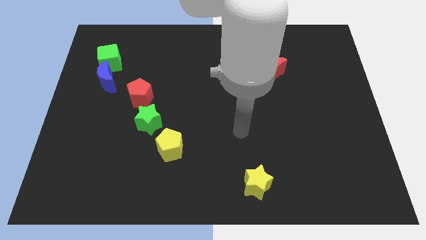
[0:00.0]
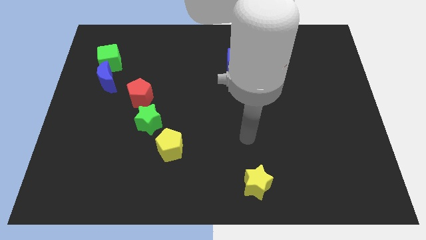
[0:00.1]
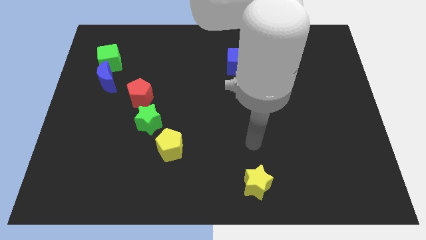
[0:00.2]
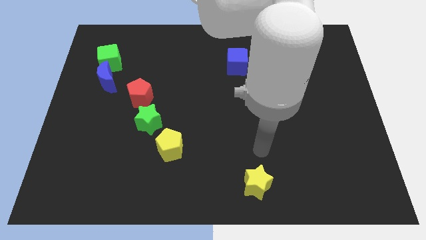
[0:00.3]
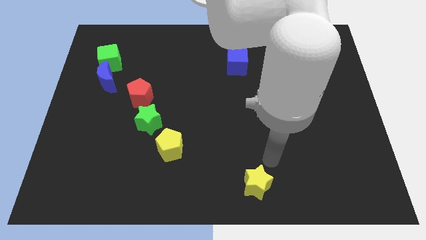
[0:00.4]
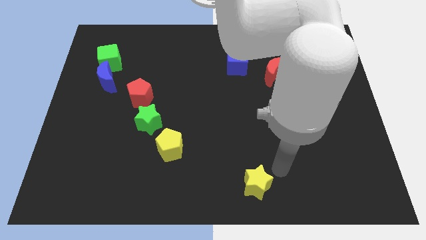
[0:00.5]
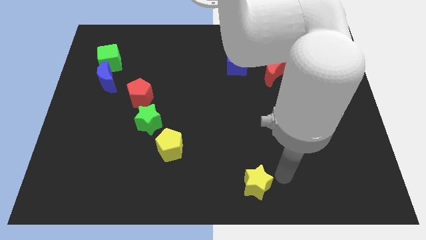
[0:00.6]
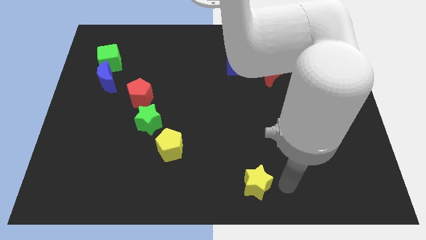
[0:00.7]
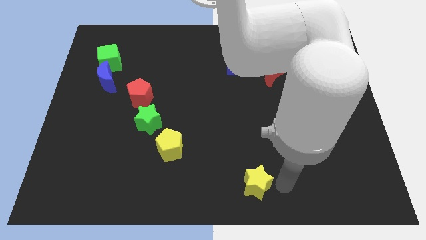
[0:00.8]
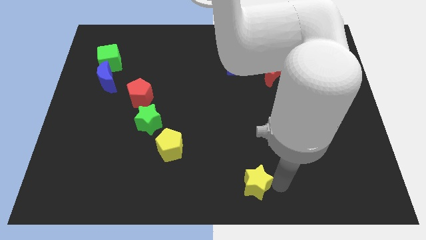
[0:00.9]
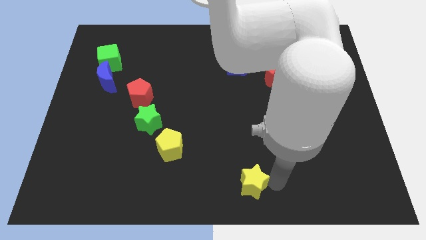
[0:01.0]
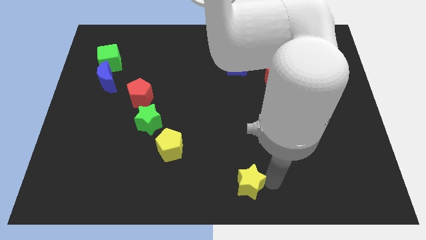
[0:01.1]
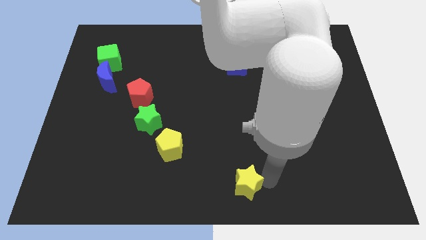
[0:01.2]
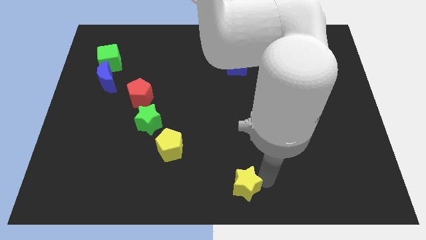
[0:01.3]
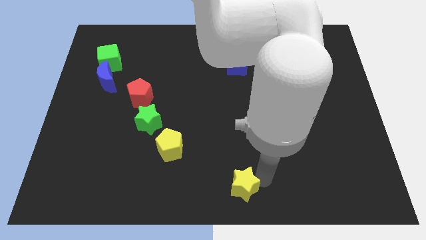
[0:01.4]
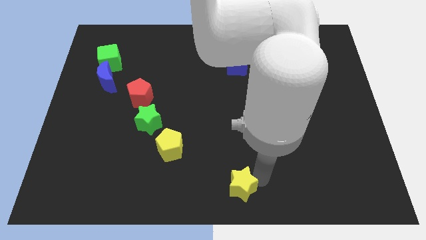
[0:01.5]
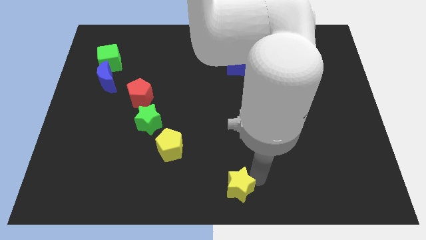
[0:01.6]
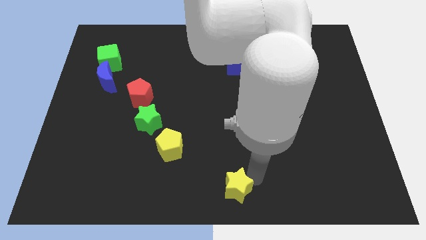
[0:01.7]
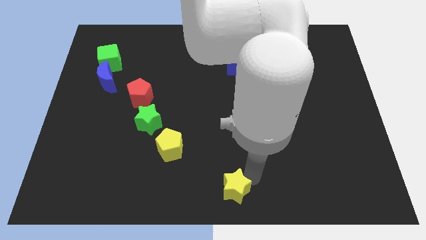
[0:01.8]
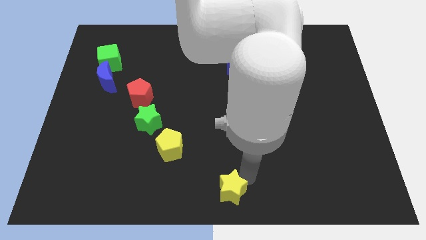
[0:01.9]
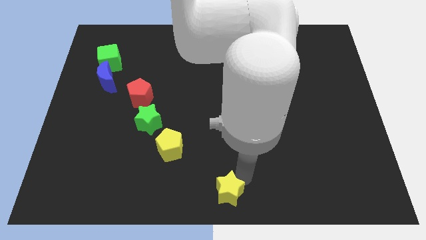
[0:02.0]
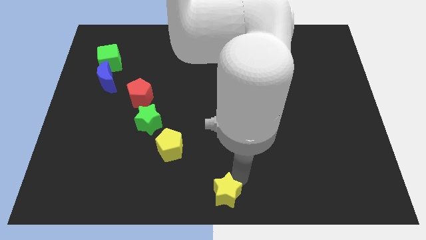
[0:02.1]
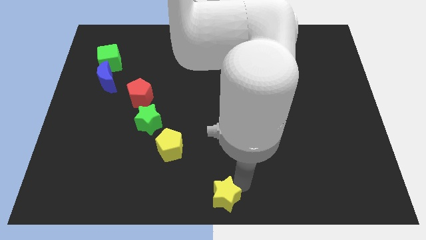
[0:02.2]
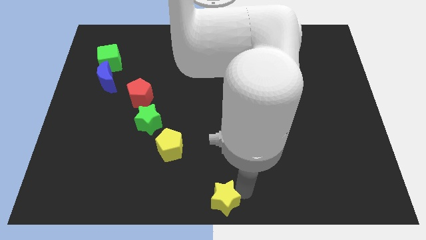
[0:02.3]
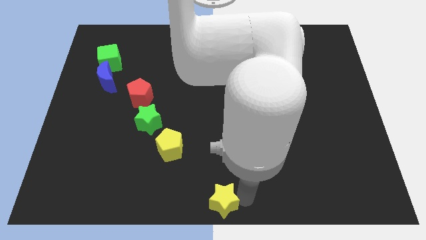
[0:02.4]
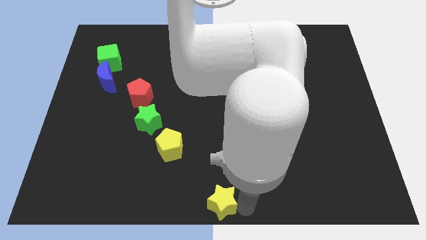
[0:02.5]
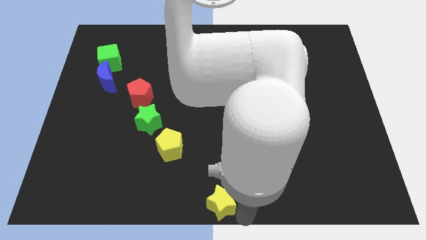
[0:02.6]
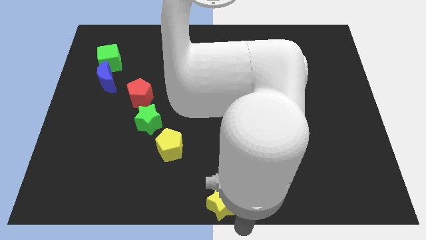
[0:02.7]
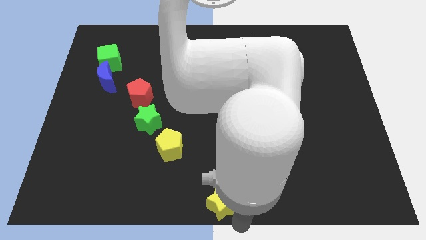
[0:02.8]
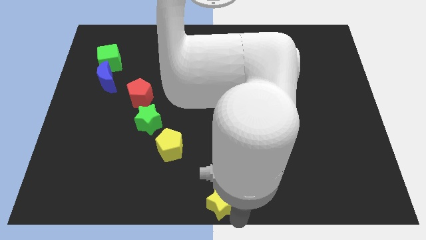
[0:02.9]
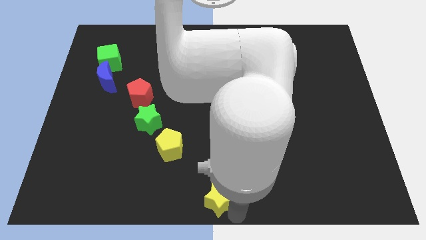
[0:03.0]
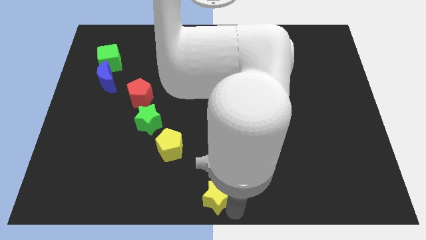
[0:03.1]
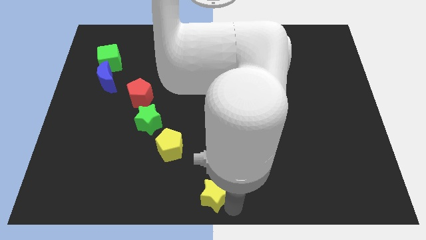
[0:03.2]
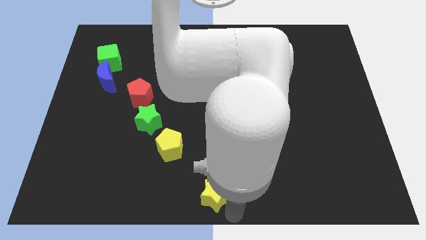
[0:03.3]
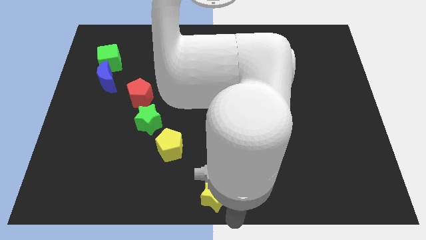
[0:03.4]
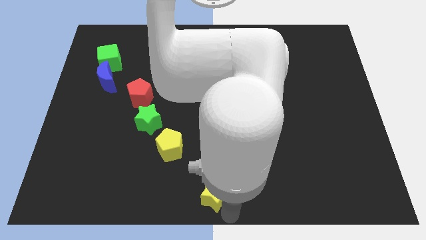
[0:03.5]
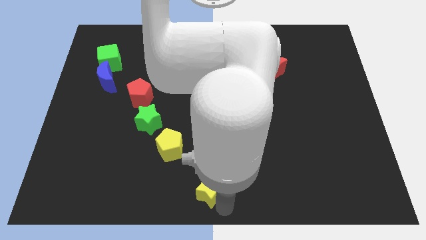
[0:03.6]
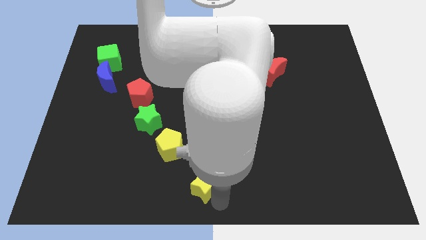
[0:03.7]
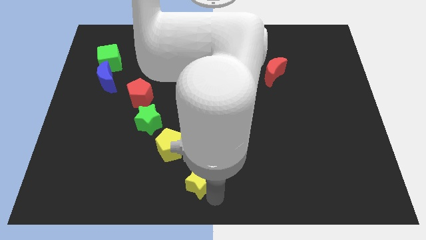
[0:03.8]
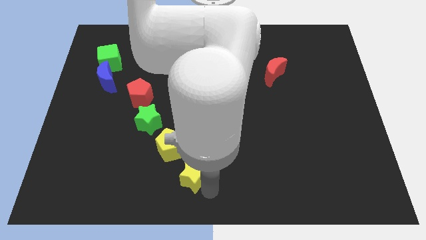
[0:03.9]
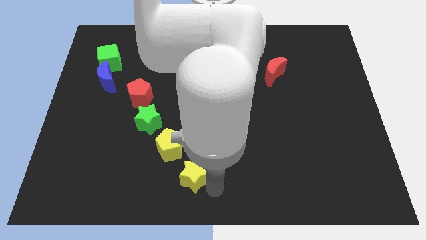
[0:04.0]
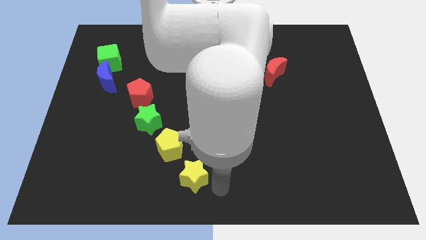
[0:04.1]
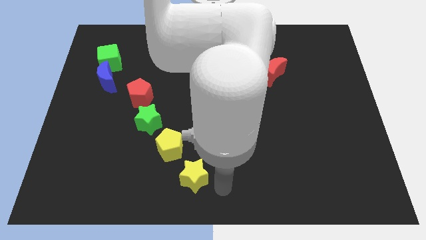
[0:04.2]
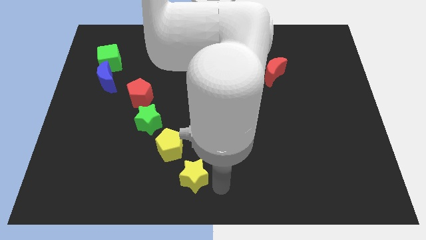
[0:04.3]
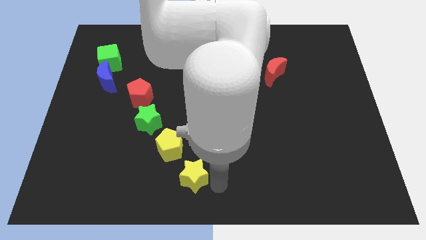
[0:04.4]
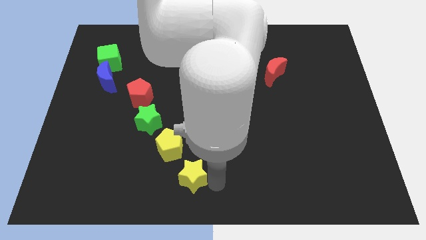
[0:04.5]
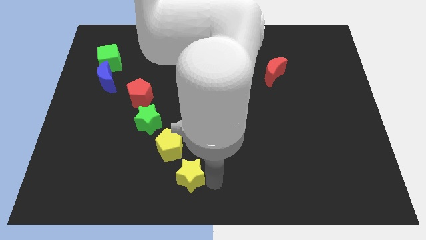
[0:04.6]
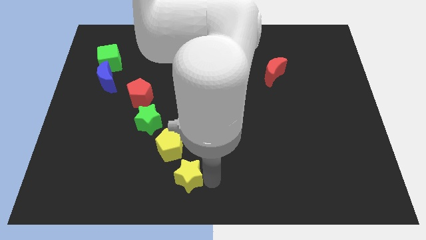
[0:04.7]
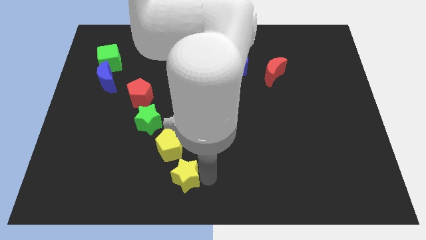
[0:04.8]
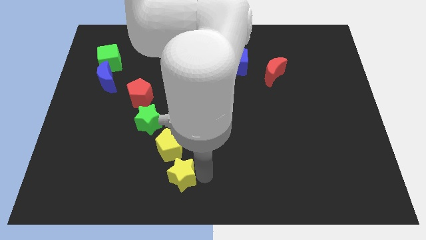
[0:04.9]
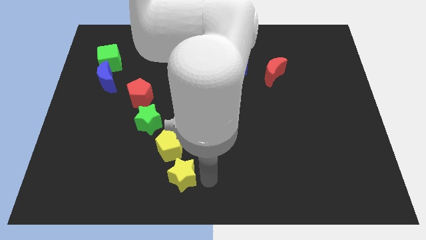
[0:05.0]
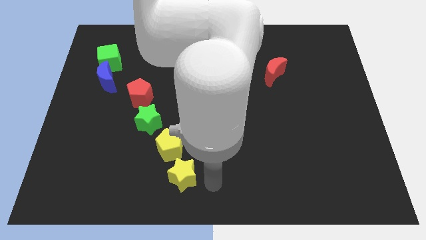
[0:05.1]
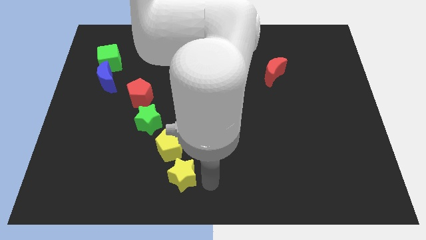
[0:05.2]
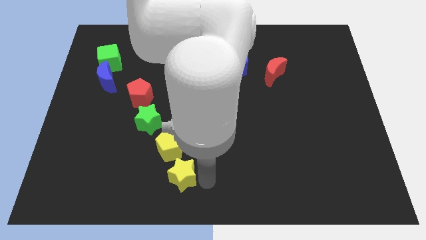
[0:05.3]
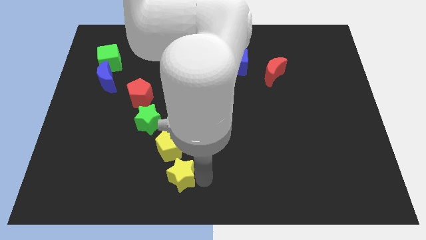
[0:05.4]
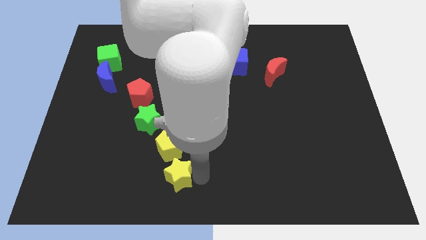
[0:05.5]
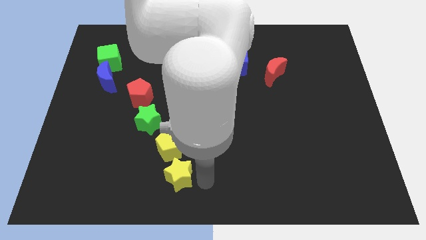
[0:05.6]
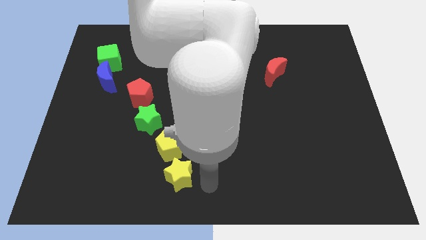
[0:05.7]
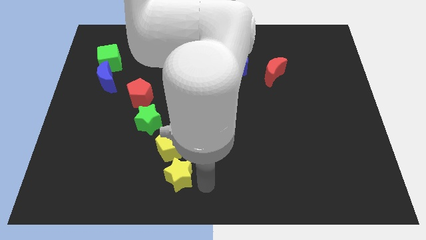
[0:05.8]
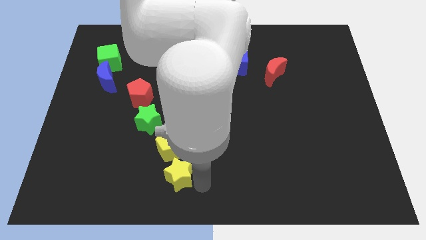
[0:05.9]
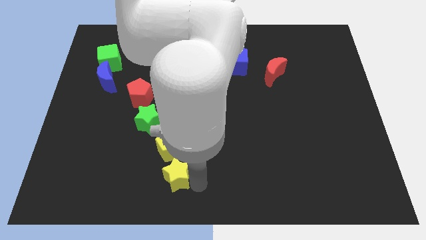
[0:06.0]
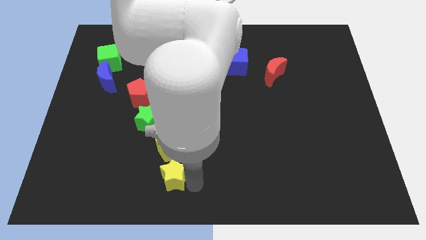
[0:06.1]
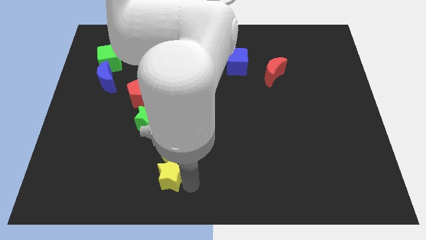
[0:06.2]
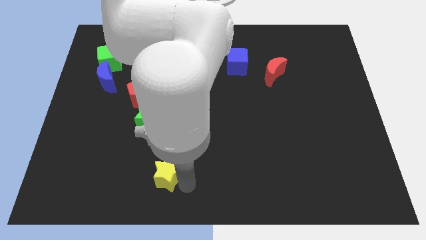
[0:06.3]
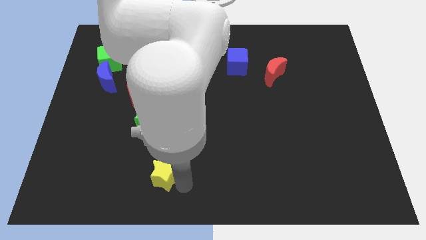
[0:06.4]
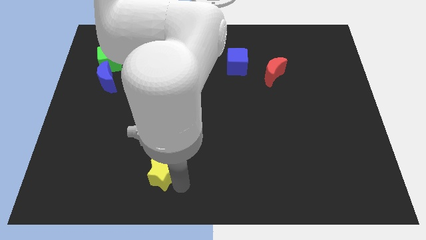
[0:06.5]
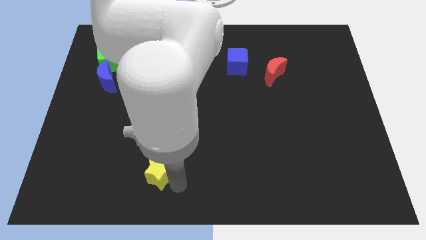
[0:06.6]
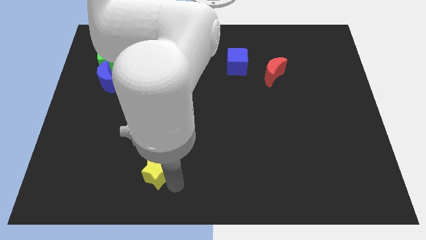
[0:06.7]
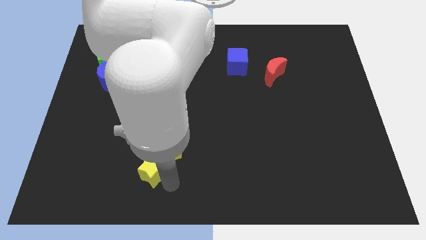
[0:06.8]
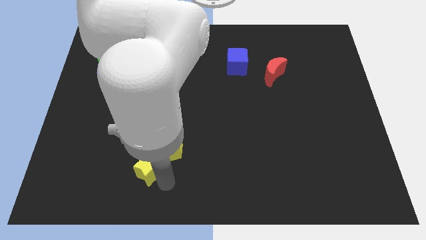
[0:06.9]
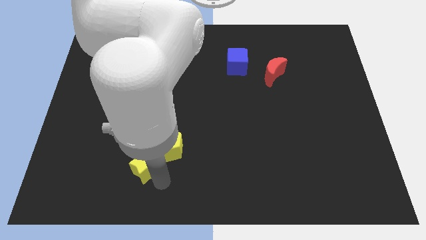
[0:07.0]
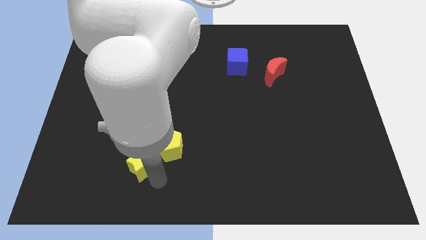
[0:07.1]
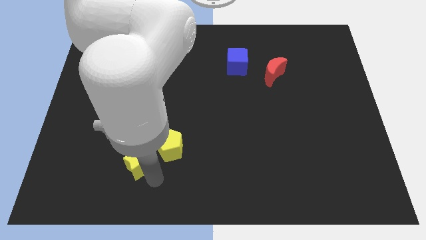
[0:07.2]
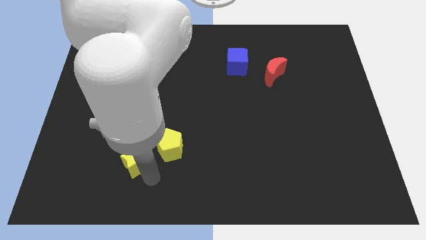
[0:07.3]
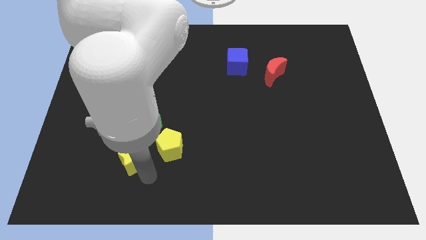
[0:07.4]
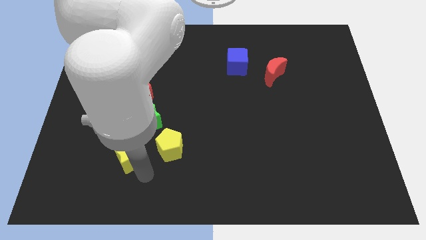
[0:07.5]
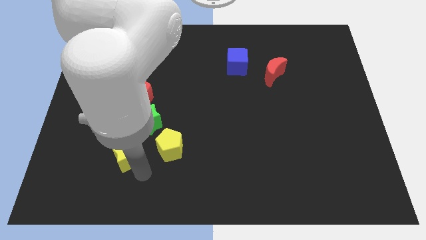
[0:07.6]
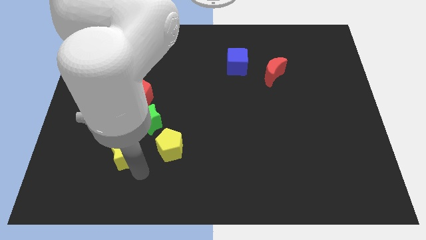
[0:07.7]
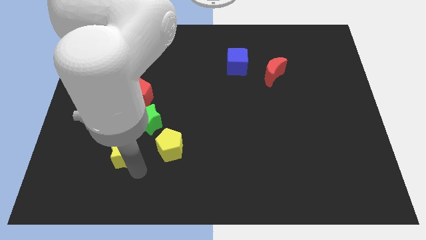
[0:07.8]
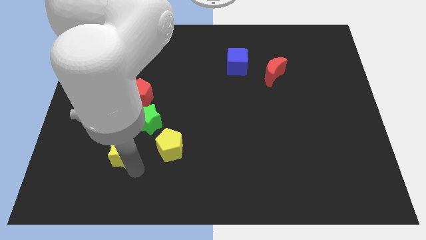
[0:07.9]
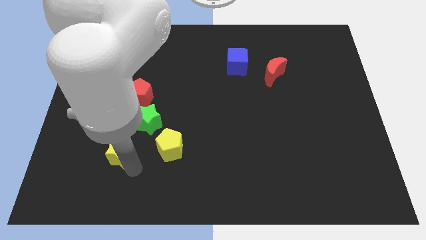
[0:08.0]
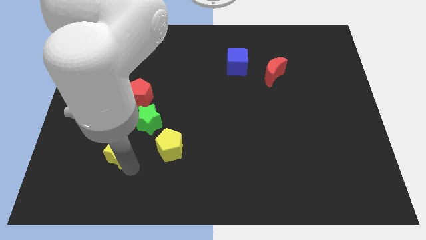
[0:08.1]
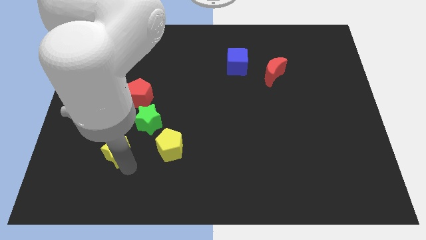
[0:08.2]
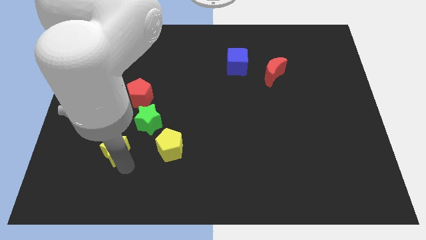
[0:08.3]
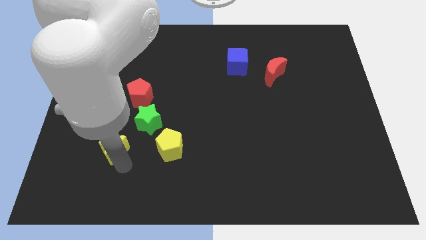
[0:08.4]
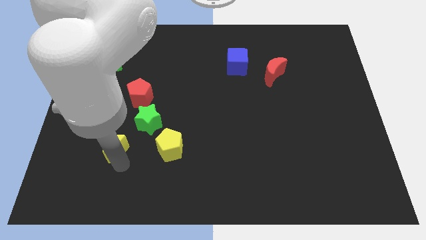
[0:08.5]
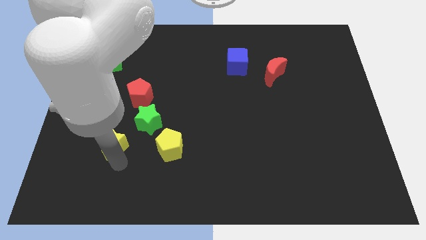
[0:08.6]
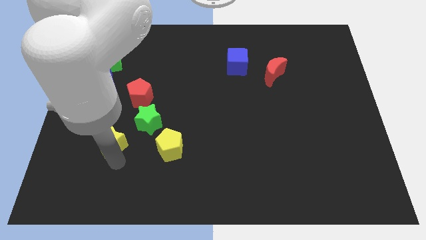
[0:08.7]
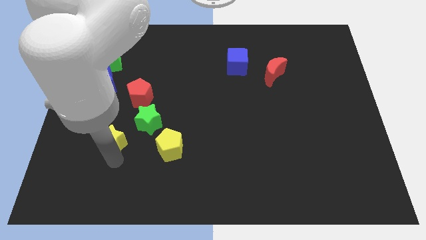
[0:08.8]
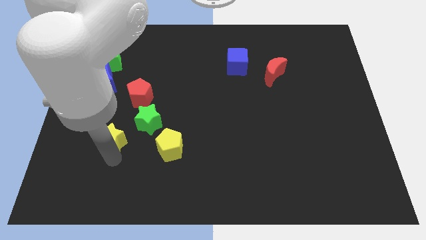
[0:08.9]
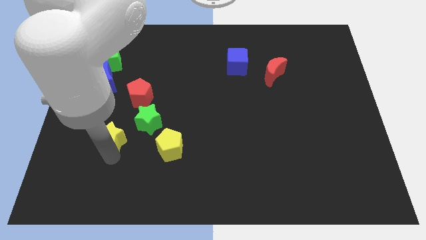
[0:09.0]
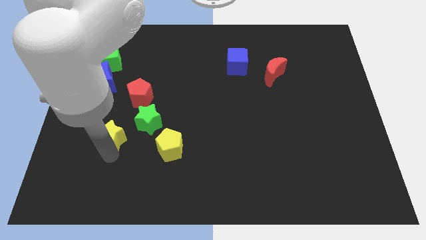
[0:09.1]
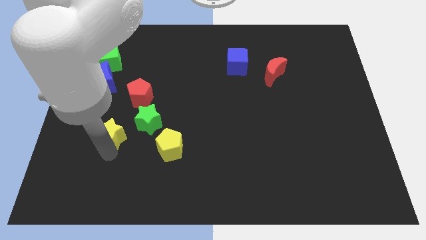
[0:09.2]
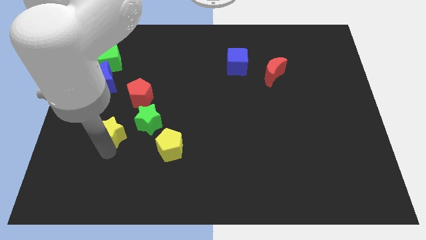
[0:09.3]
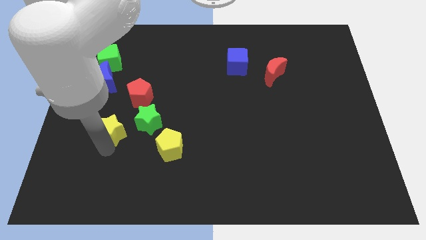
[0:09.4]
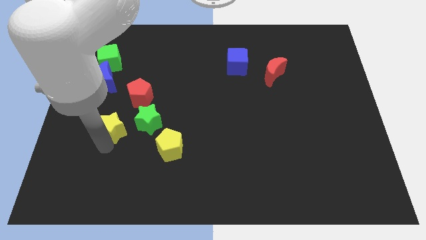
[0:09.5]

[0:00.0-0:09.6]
put the yellow star diagonally down and to the left of the red pentagon
